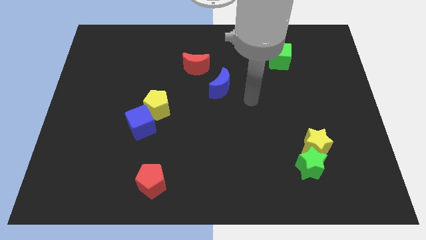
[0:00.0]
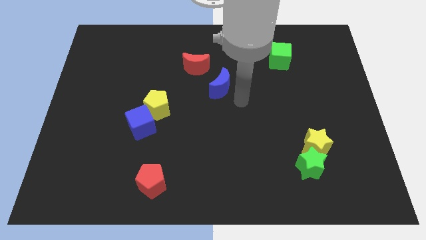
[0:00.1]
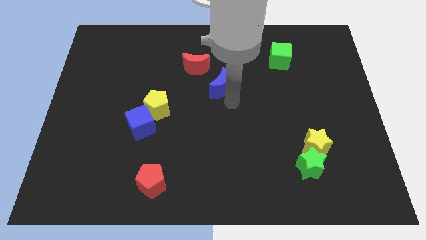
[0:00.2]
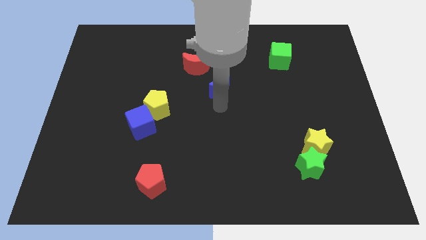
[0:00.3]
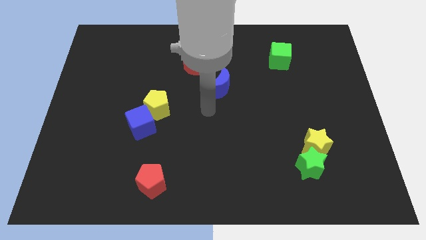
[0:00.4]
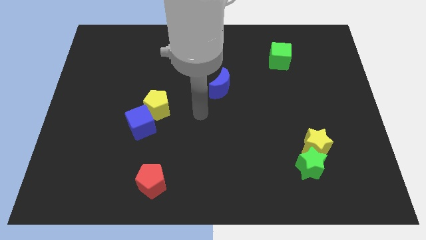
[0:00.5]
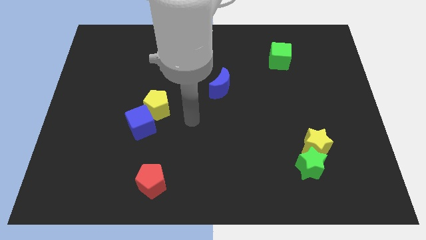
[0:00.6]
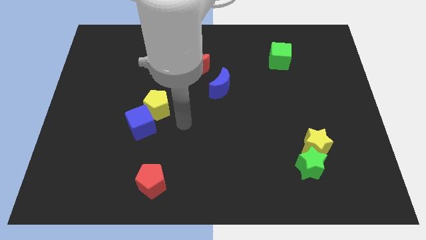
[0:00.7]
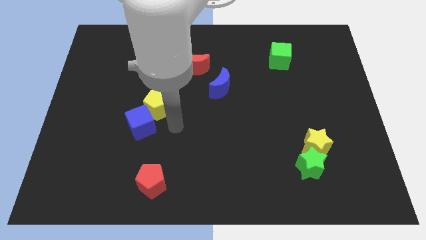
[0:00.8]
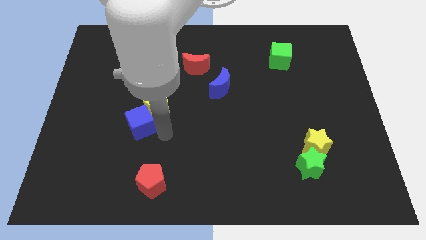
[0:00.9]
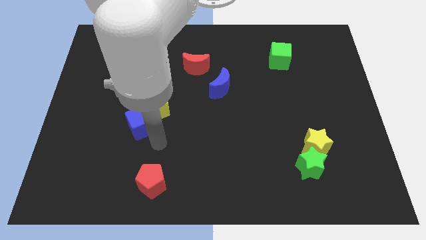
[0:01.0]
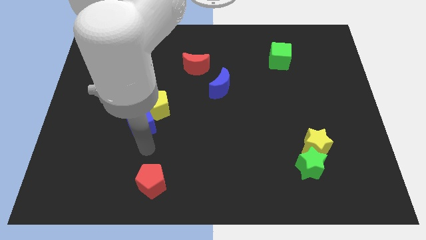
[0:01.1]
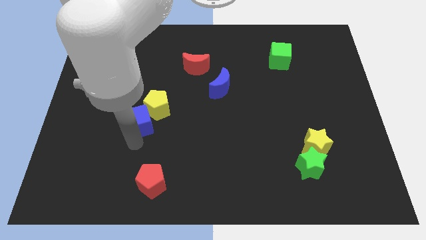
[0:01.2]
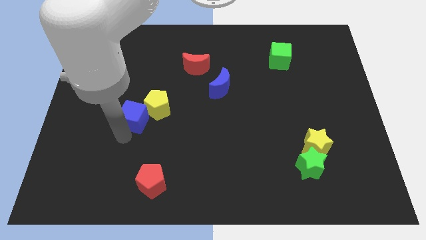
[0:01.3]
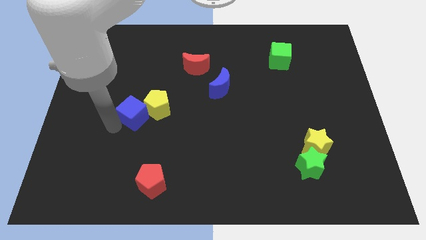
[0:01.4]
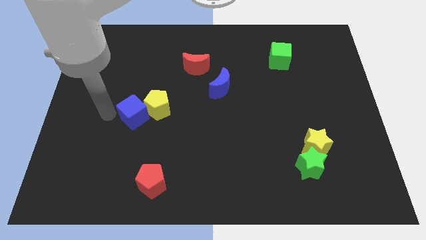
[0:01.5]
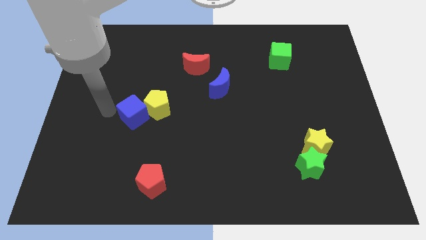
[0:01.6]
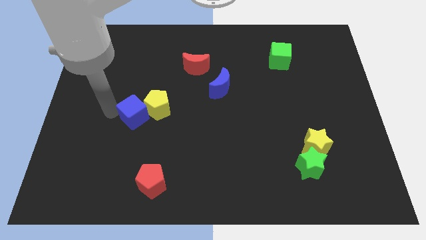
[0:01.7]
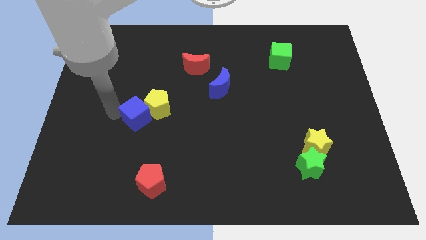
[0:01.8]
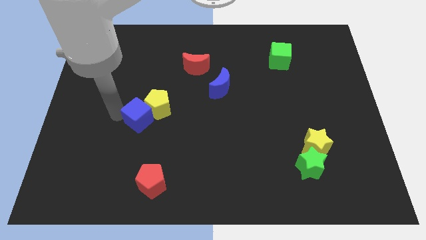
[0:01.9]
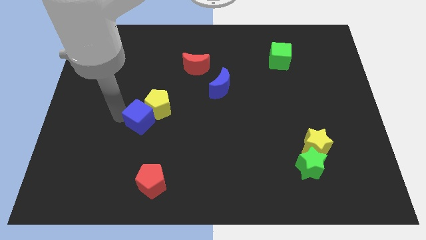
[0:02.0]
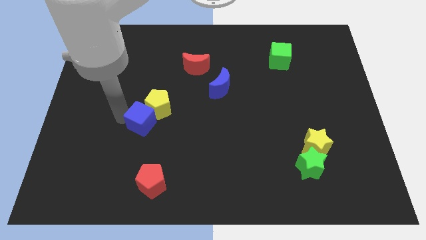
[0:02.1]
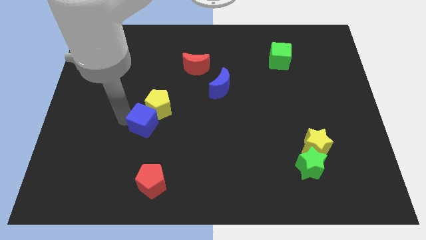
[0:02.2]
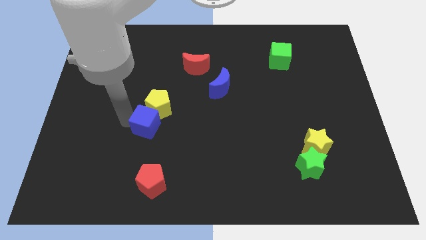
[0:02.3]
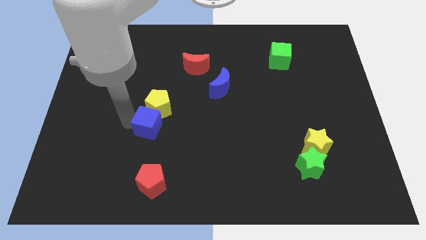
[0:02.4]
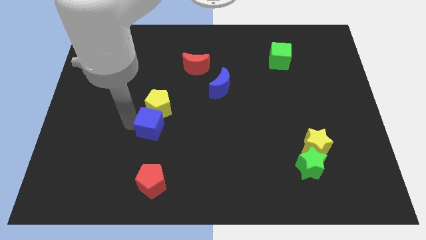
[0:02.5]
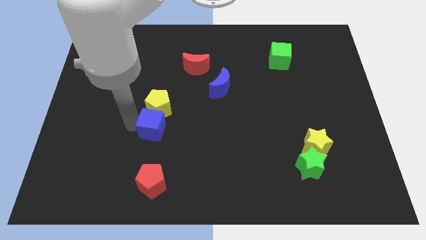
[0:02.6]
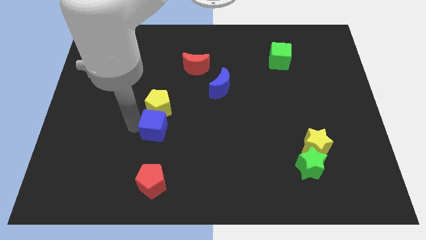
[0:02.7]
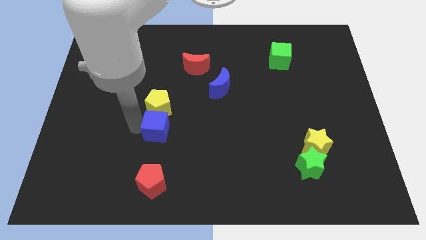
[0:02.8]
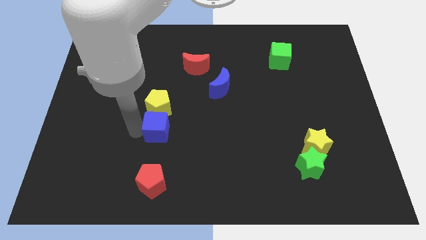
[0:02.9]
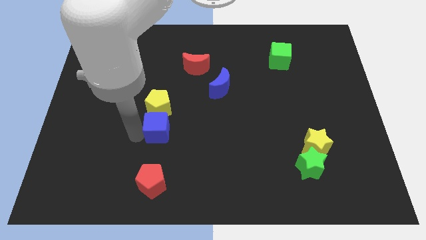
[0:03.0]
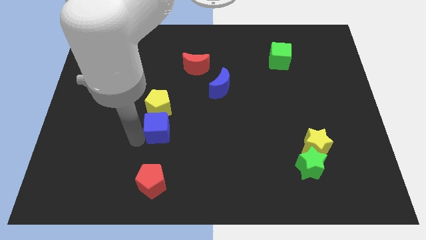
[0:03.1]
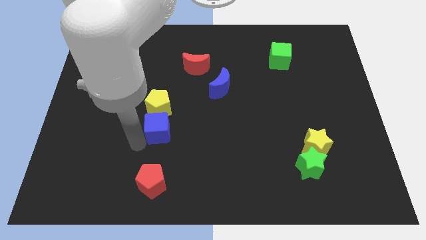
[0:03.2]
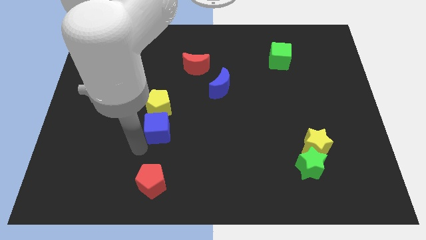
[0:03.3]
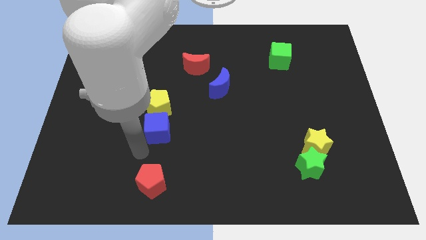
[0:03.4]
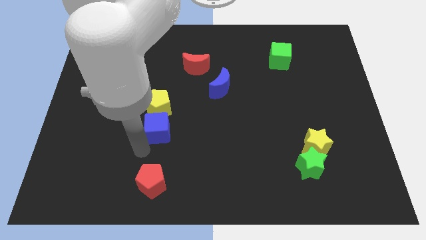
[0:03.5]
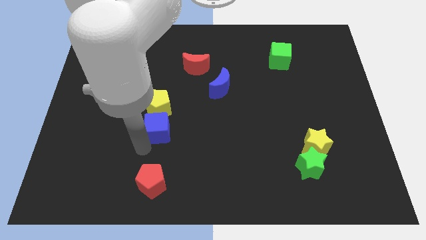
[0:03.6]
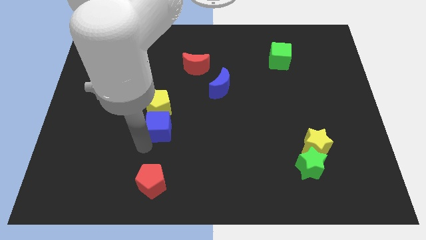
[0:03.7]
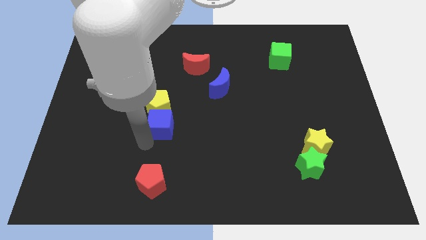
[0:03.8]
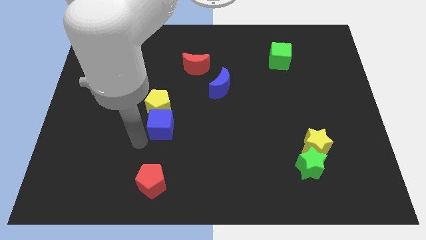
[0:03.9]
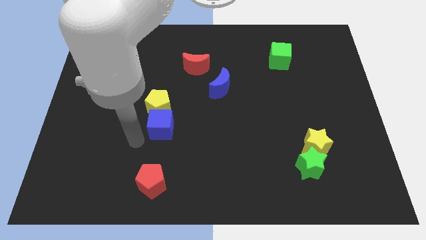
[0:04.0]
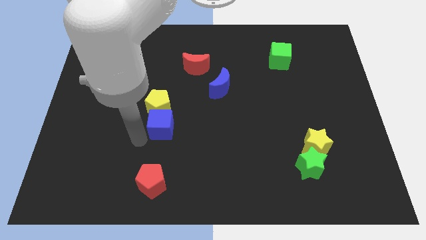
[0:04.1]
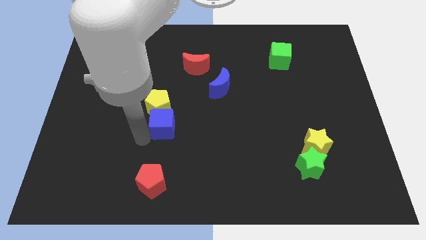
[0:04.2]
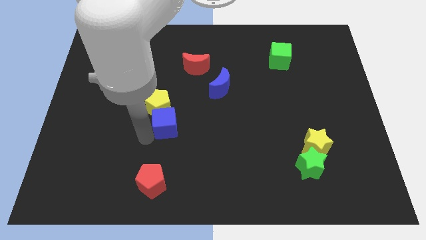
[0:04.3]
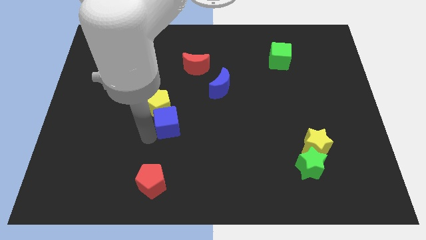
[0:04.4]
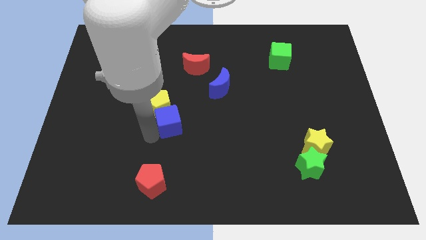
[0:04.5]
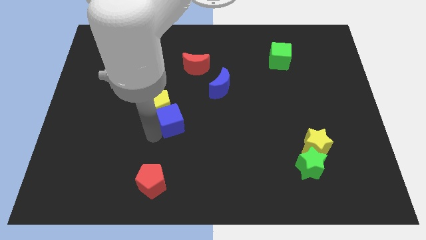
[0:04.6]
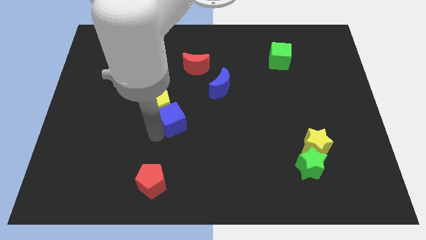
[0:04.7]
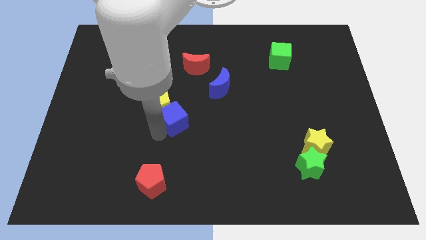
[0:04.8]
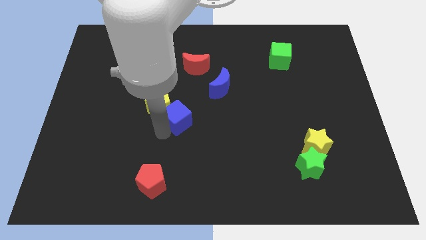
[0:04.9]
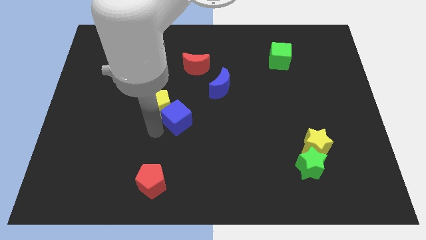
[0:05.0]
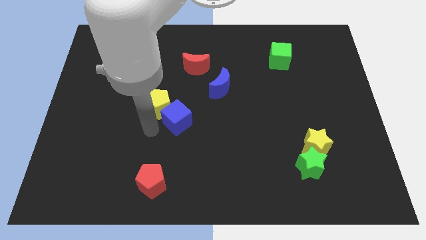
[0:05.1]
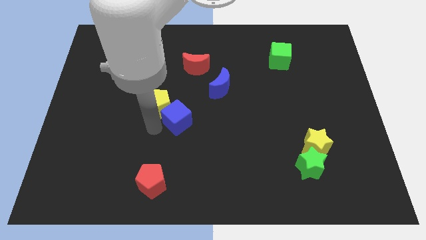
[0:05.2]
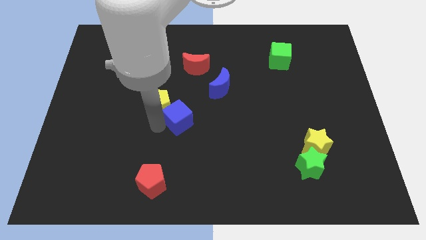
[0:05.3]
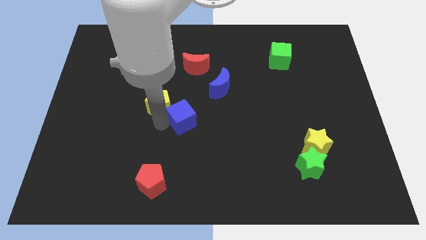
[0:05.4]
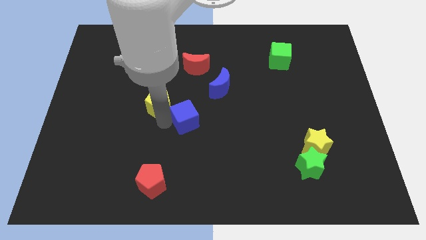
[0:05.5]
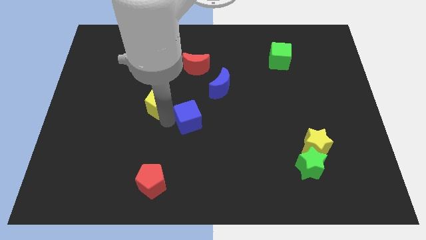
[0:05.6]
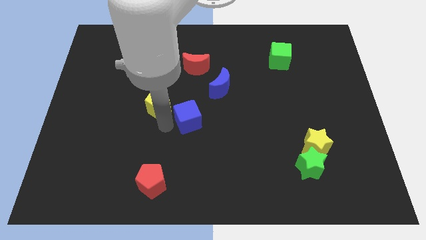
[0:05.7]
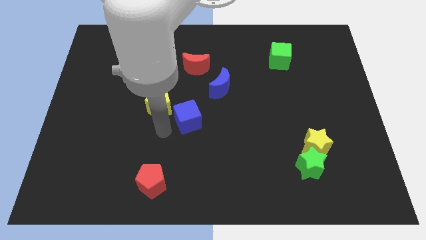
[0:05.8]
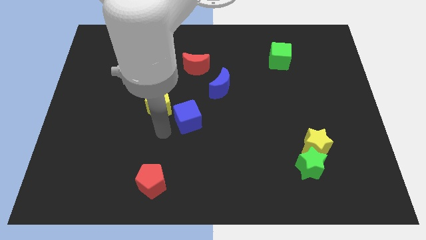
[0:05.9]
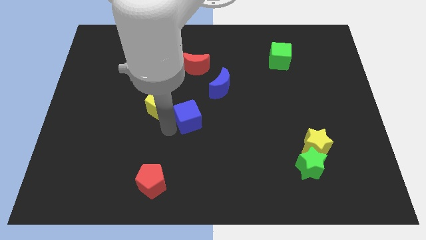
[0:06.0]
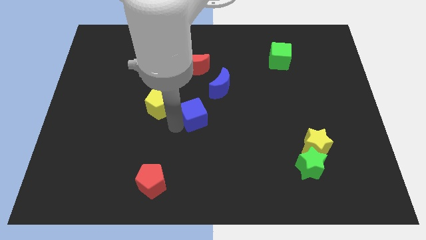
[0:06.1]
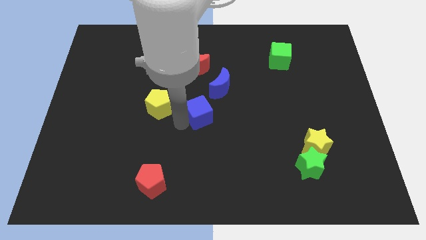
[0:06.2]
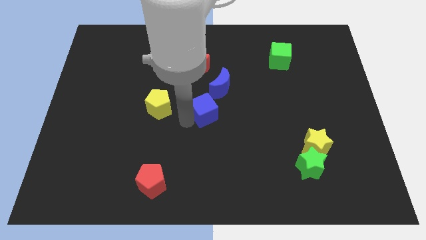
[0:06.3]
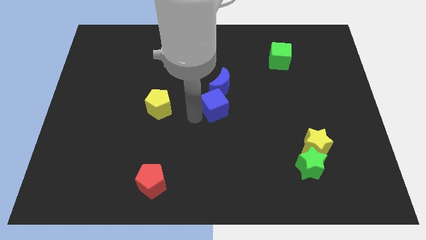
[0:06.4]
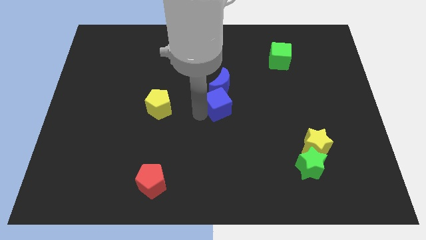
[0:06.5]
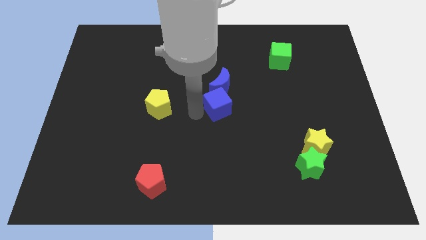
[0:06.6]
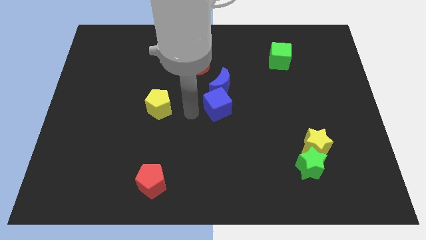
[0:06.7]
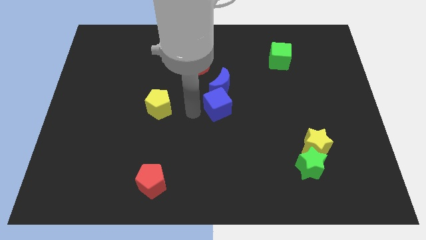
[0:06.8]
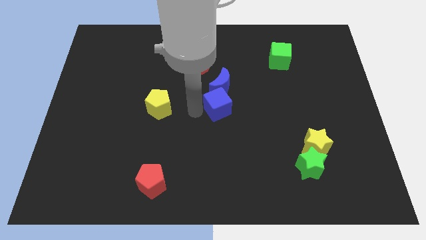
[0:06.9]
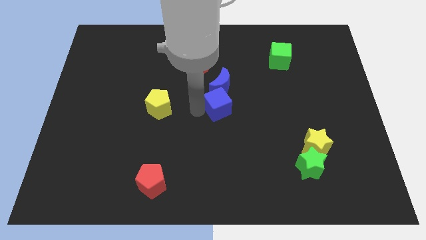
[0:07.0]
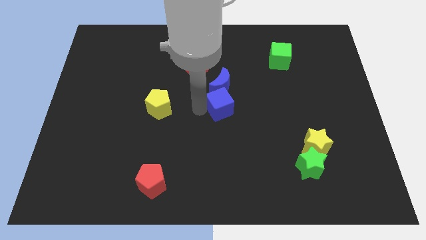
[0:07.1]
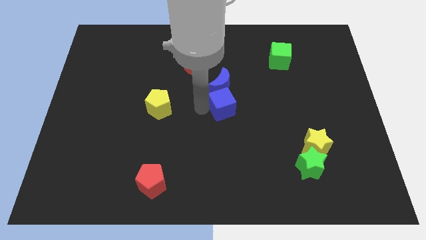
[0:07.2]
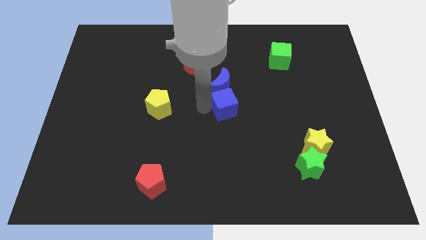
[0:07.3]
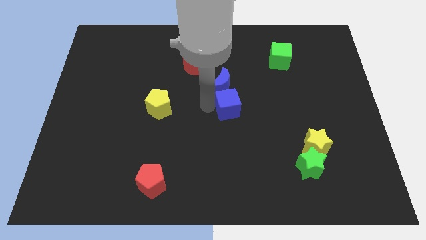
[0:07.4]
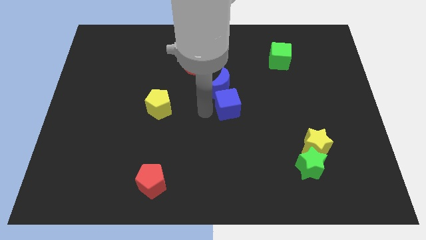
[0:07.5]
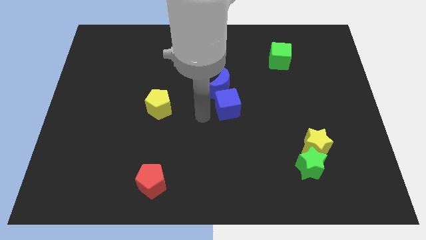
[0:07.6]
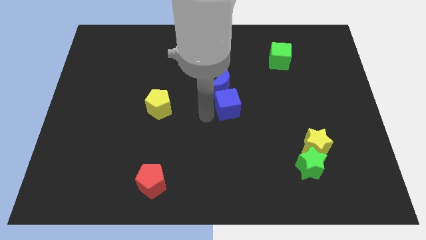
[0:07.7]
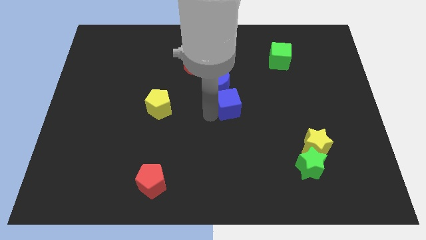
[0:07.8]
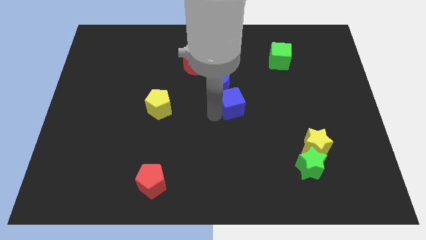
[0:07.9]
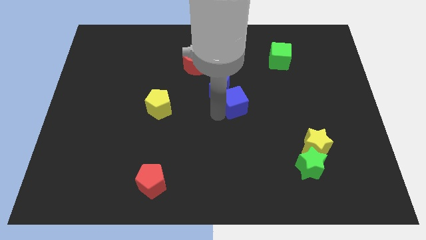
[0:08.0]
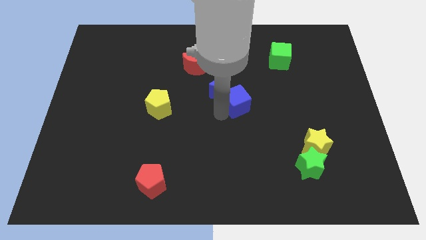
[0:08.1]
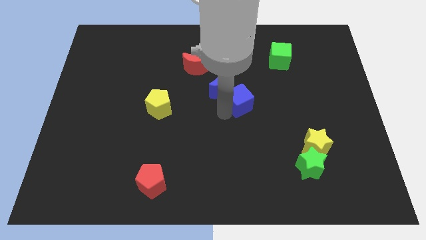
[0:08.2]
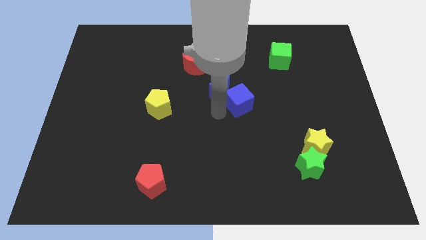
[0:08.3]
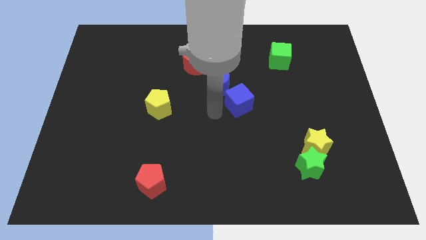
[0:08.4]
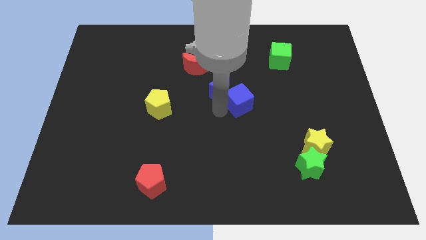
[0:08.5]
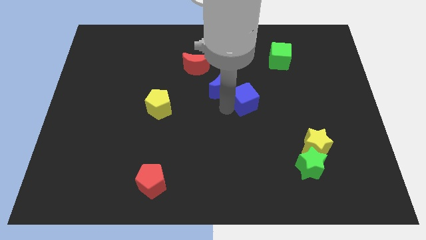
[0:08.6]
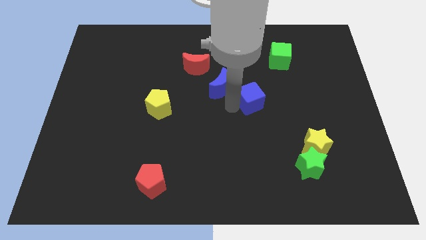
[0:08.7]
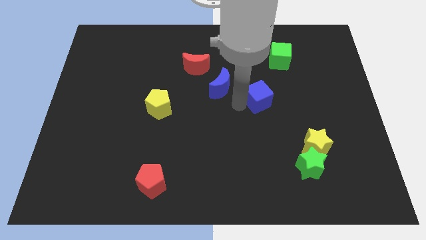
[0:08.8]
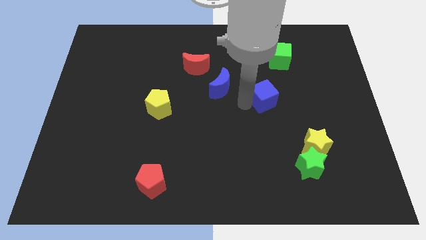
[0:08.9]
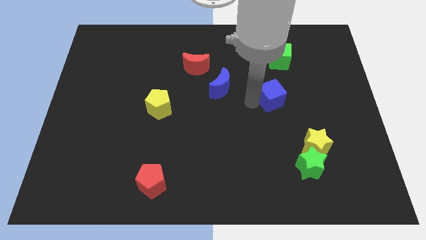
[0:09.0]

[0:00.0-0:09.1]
put the blue cube to the bottom side of the green cube
